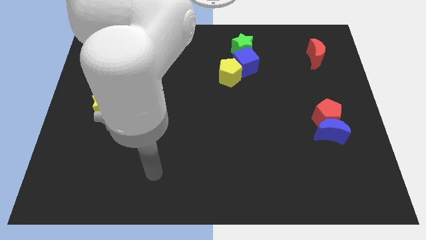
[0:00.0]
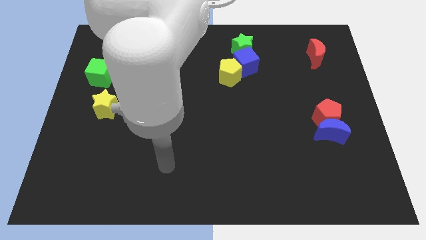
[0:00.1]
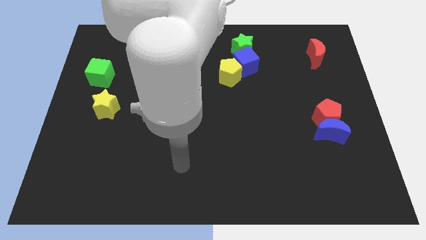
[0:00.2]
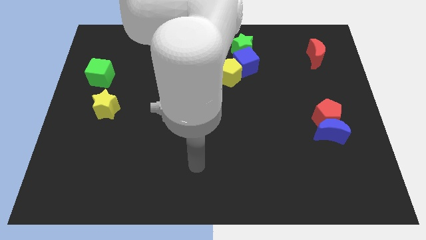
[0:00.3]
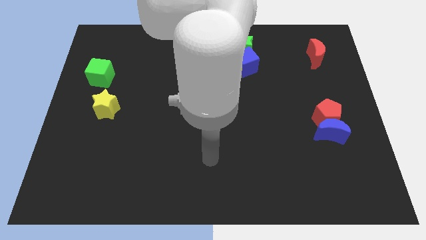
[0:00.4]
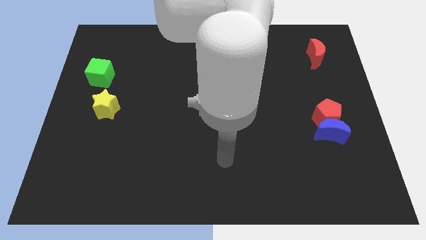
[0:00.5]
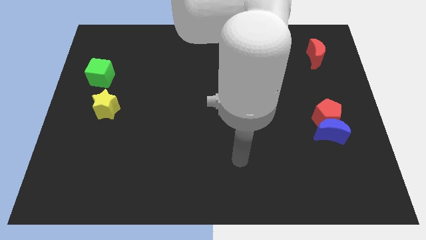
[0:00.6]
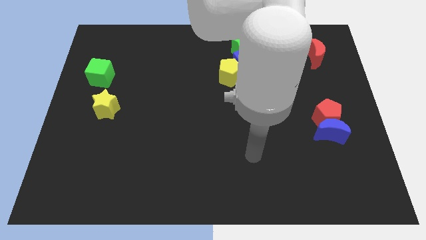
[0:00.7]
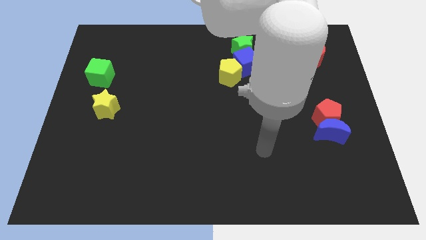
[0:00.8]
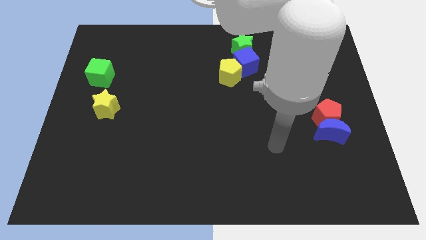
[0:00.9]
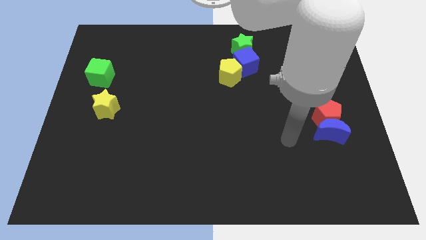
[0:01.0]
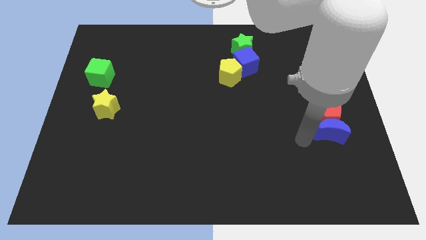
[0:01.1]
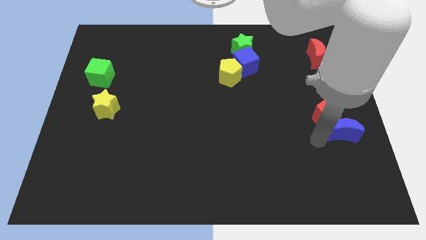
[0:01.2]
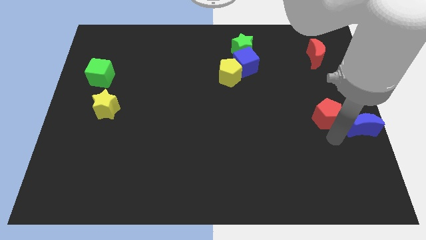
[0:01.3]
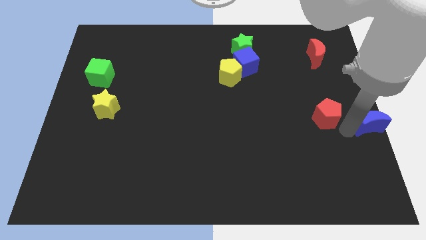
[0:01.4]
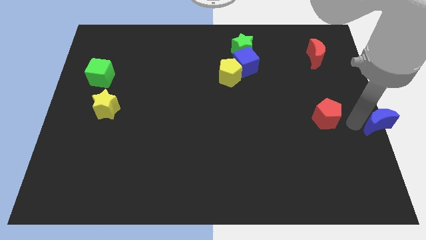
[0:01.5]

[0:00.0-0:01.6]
move the red pentagon away from the blue moon

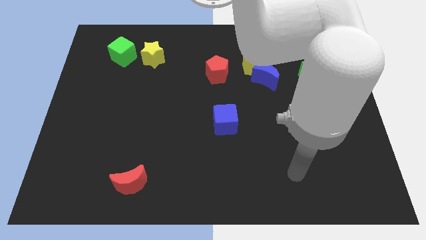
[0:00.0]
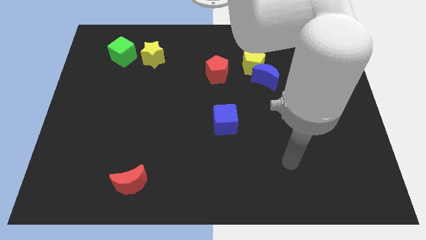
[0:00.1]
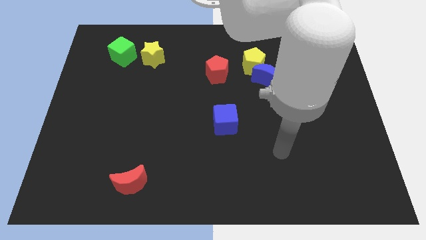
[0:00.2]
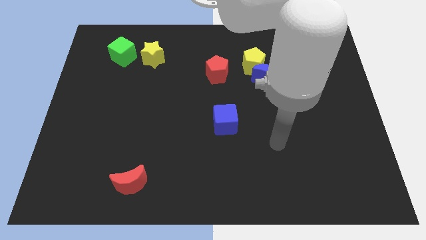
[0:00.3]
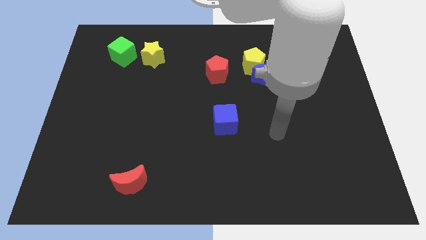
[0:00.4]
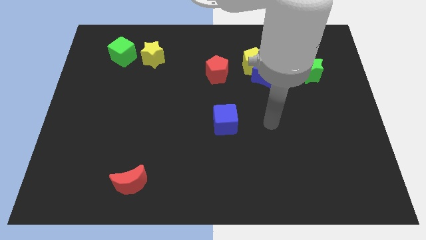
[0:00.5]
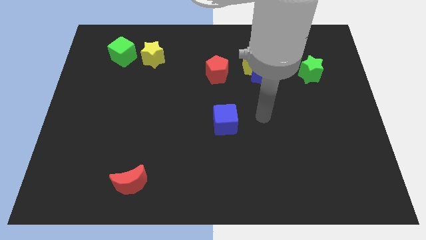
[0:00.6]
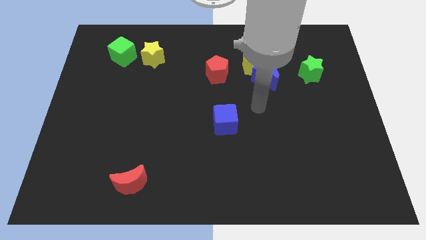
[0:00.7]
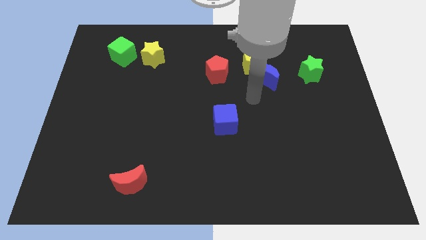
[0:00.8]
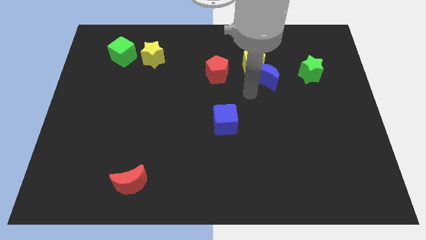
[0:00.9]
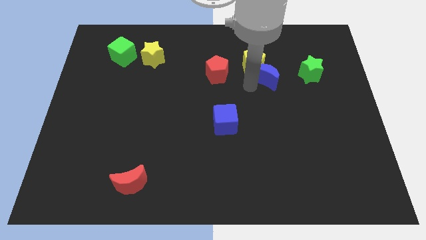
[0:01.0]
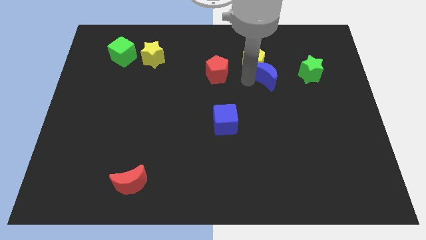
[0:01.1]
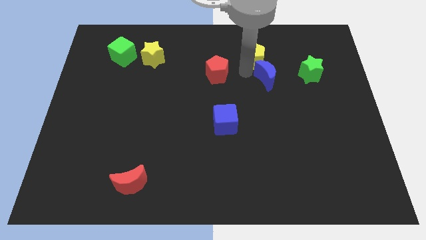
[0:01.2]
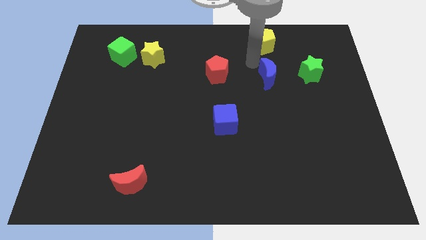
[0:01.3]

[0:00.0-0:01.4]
separate the blue moon from the yellow pentagon

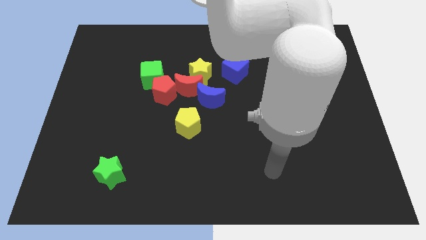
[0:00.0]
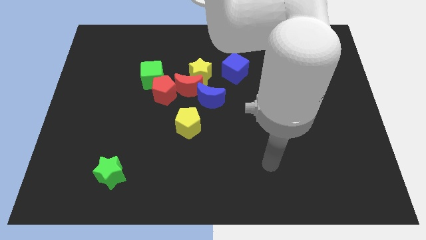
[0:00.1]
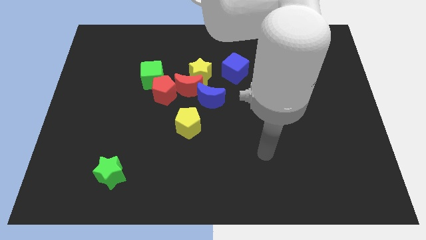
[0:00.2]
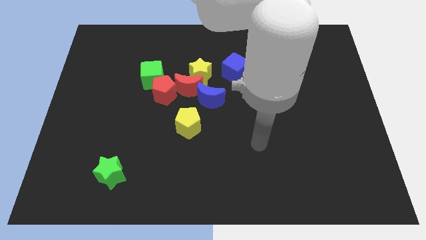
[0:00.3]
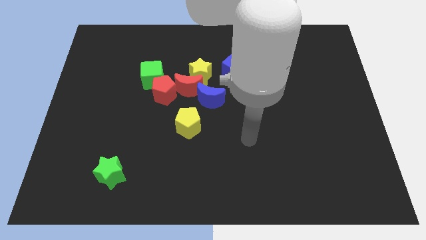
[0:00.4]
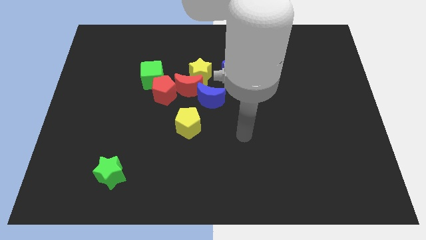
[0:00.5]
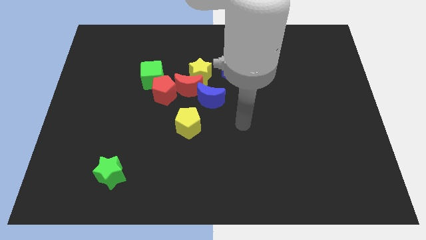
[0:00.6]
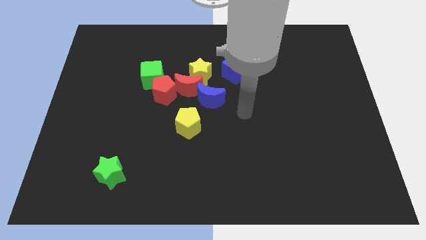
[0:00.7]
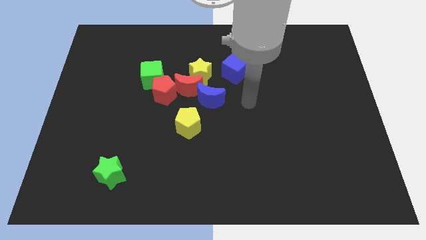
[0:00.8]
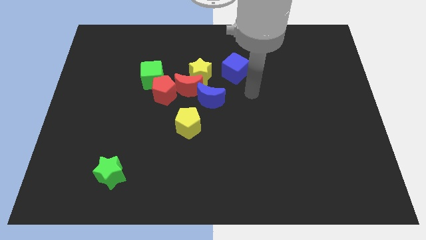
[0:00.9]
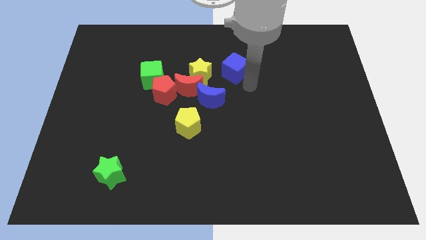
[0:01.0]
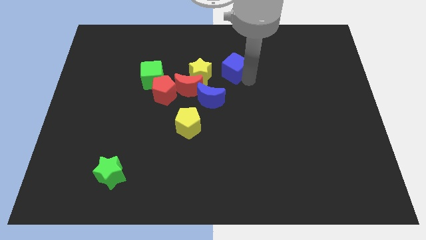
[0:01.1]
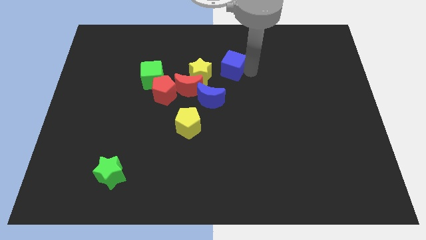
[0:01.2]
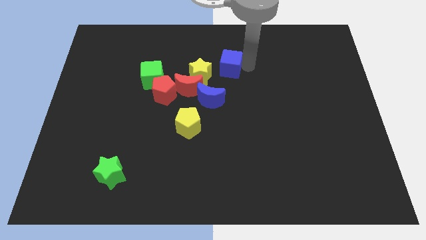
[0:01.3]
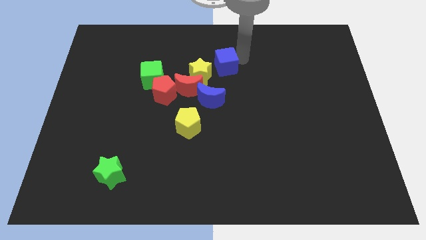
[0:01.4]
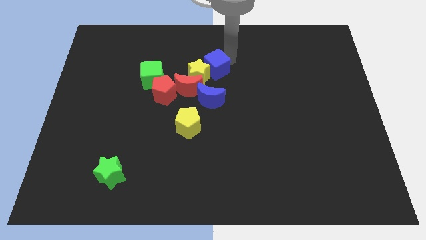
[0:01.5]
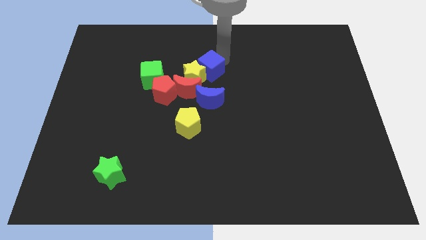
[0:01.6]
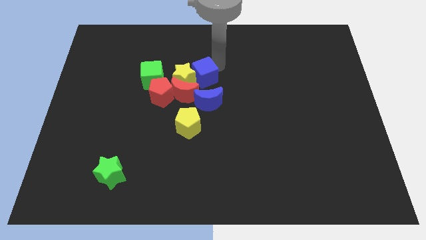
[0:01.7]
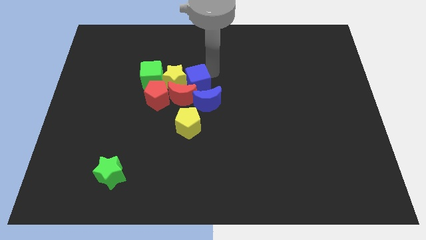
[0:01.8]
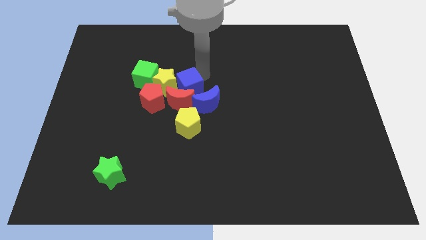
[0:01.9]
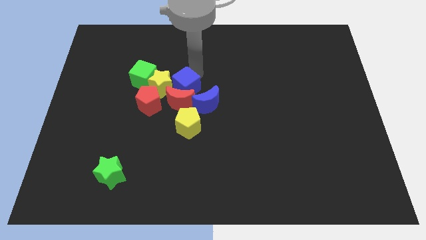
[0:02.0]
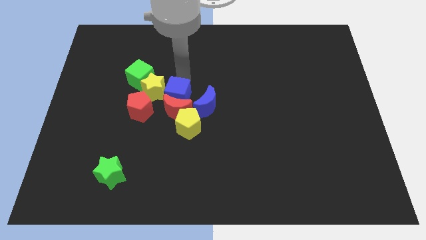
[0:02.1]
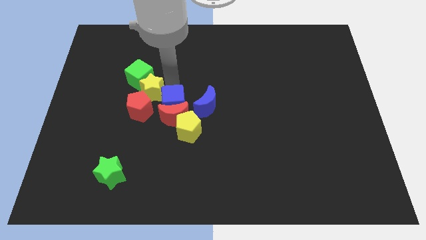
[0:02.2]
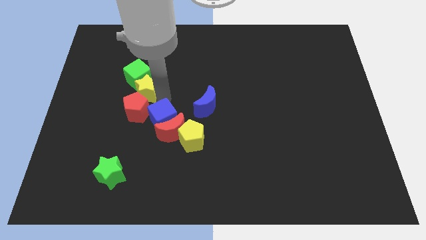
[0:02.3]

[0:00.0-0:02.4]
pull the red moon apart from the clump

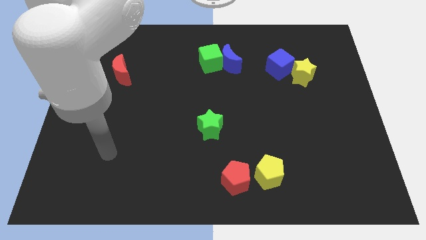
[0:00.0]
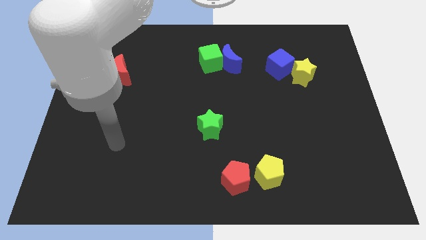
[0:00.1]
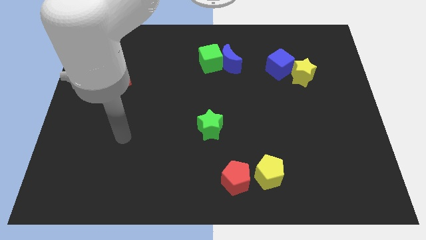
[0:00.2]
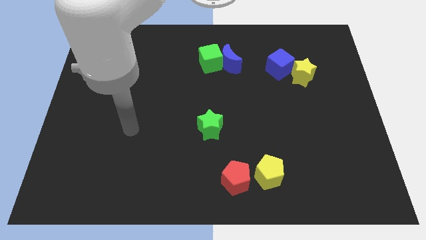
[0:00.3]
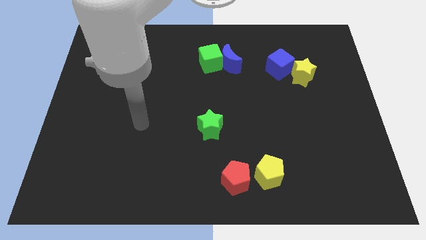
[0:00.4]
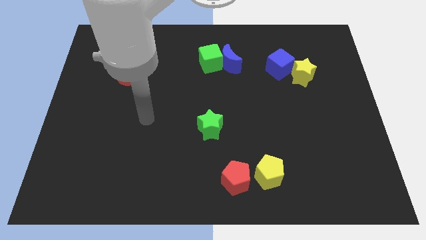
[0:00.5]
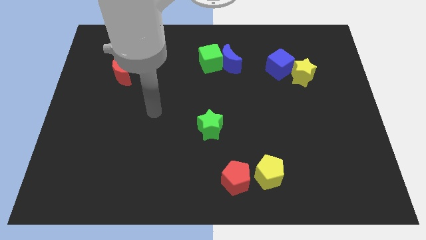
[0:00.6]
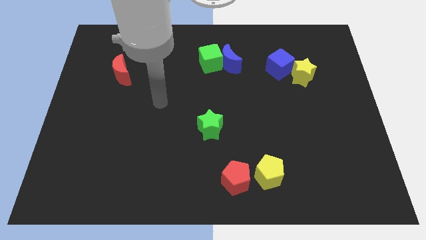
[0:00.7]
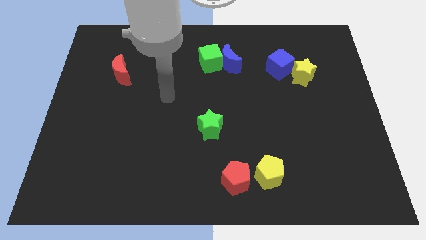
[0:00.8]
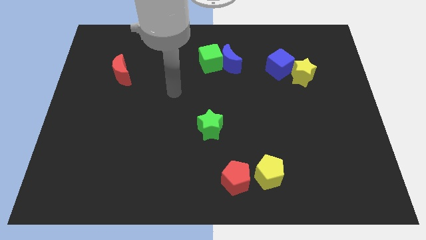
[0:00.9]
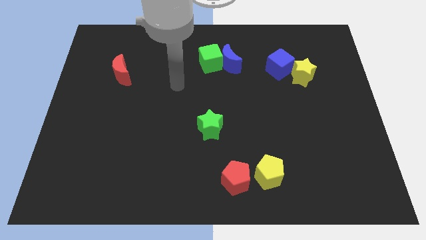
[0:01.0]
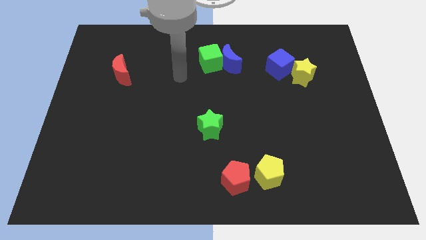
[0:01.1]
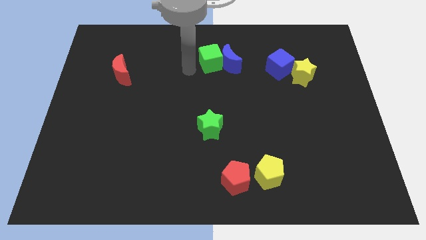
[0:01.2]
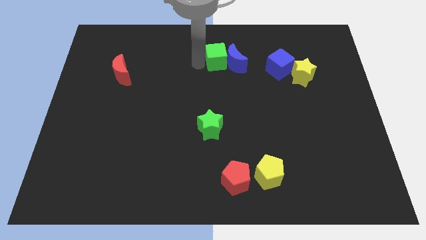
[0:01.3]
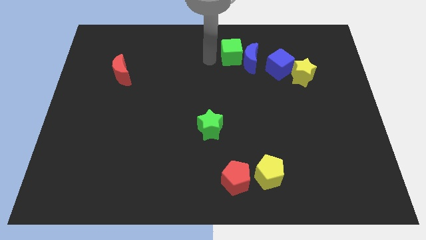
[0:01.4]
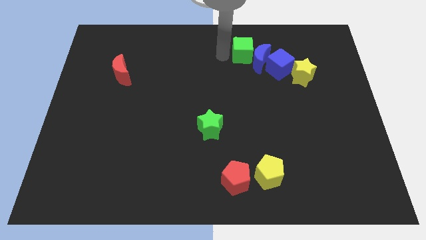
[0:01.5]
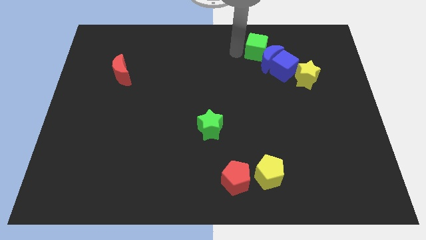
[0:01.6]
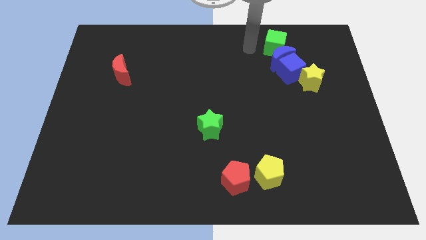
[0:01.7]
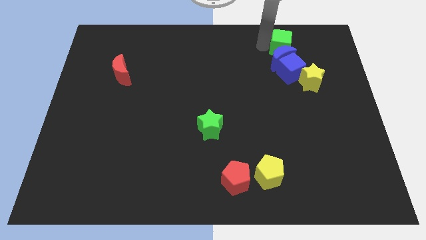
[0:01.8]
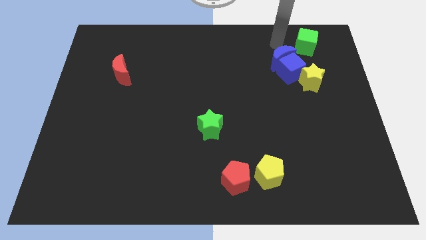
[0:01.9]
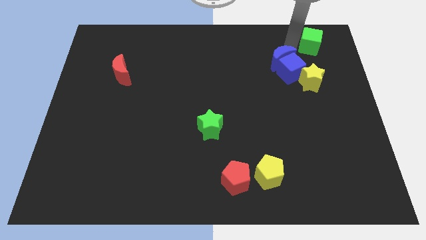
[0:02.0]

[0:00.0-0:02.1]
pull the blue moon apart from the green cube

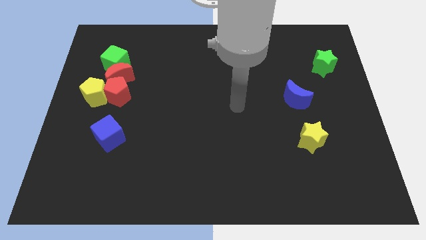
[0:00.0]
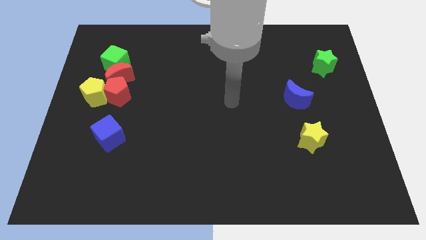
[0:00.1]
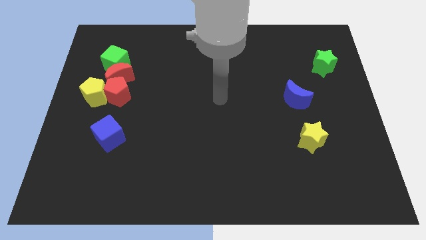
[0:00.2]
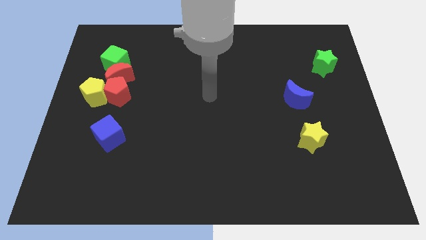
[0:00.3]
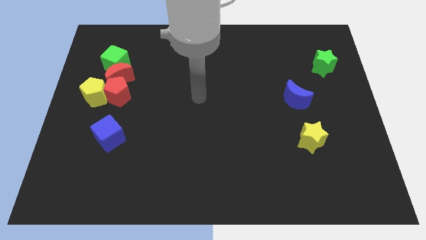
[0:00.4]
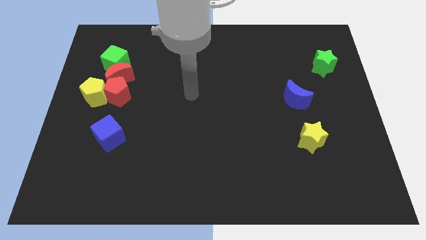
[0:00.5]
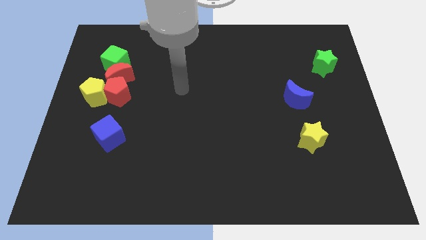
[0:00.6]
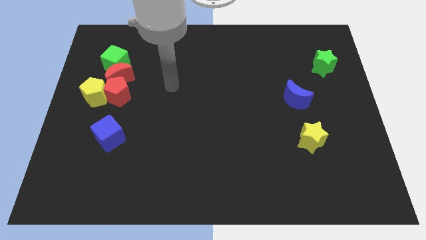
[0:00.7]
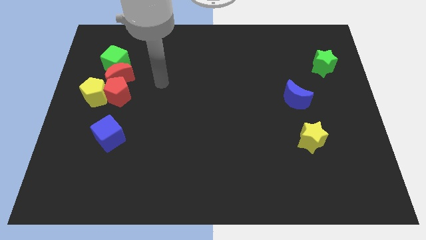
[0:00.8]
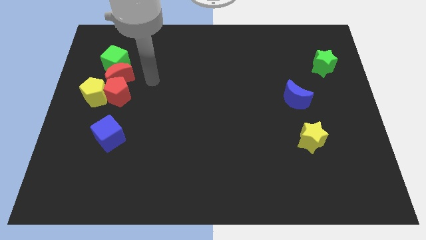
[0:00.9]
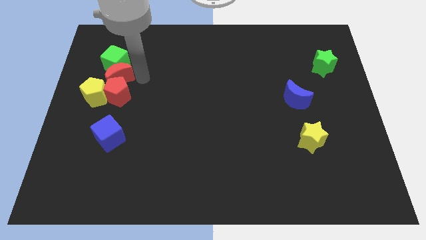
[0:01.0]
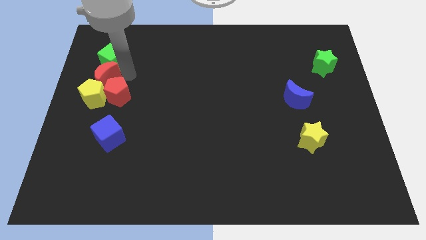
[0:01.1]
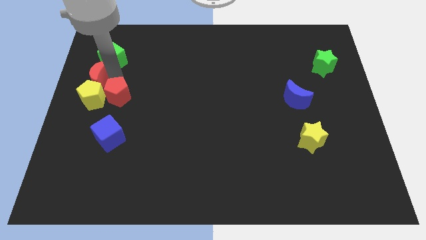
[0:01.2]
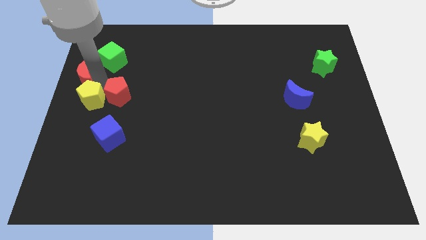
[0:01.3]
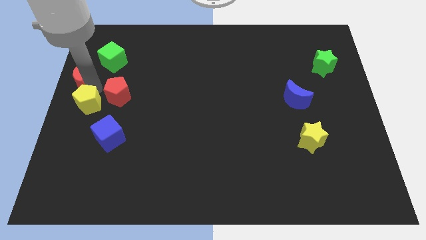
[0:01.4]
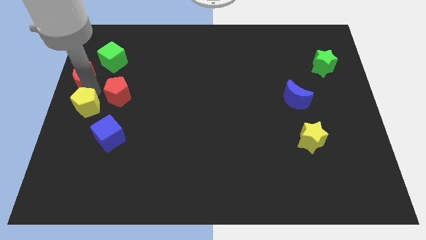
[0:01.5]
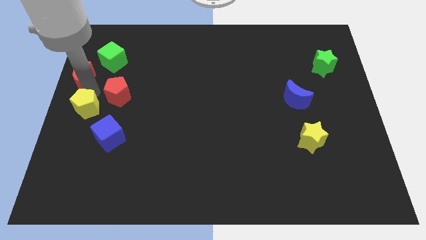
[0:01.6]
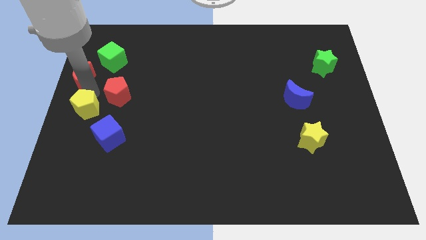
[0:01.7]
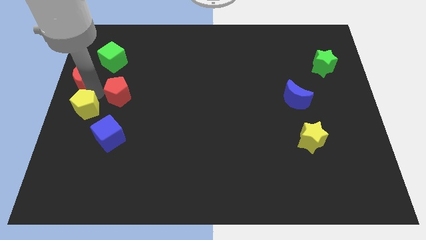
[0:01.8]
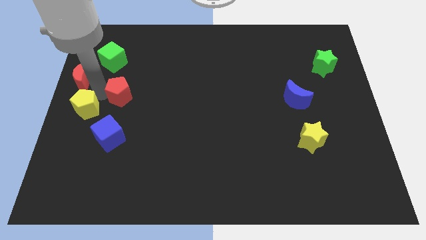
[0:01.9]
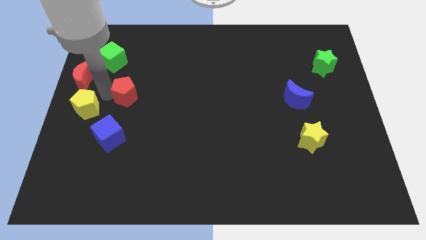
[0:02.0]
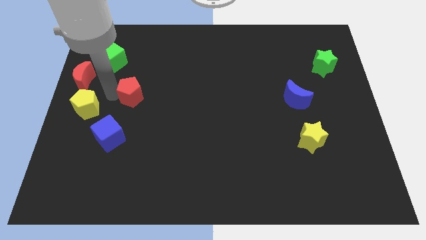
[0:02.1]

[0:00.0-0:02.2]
move the red pentagon away from the yellow pentagon and red moon
